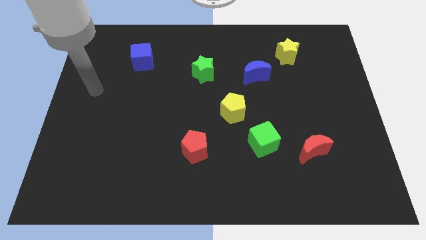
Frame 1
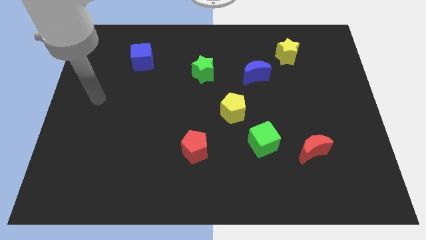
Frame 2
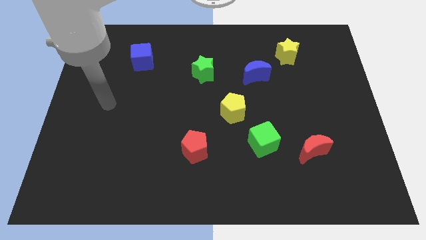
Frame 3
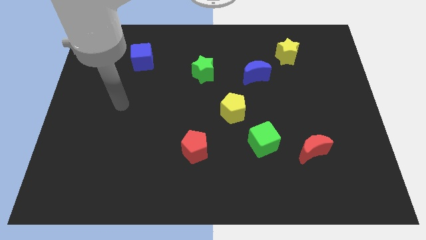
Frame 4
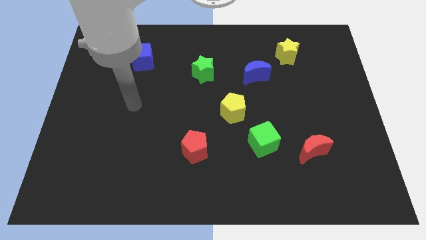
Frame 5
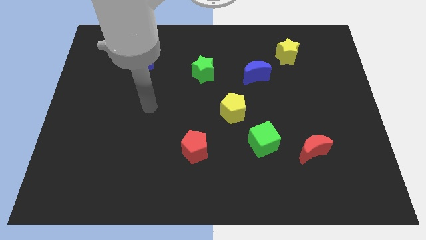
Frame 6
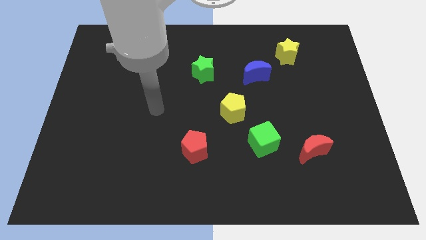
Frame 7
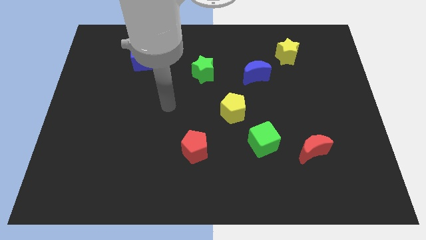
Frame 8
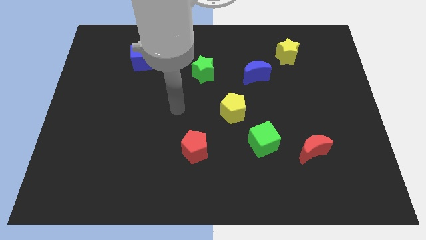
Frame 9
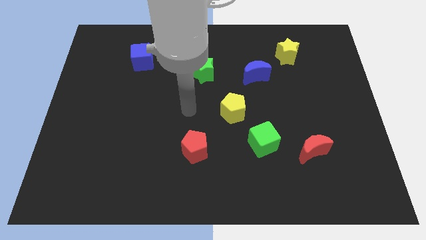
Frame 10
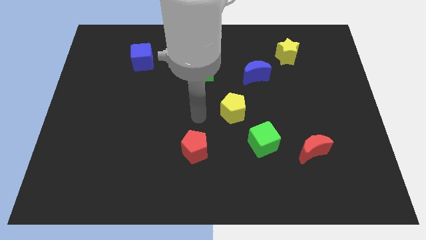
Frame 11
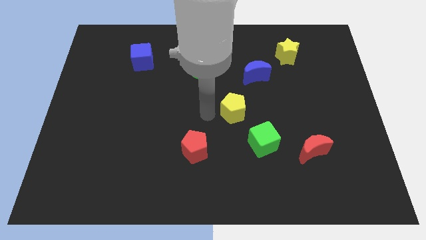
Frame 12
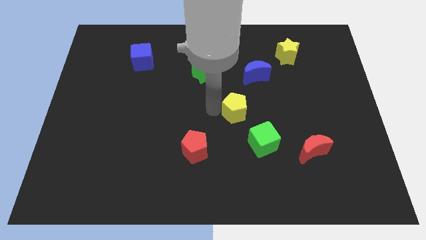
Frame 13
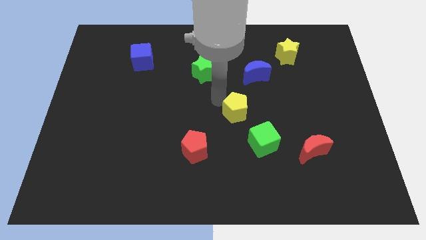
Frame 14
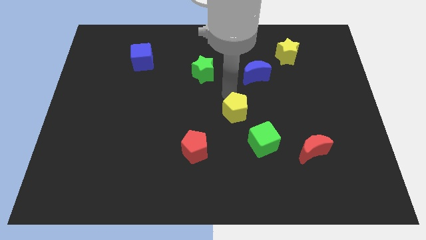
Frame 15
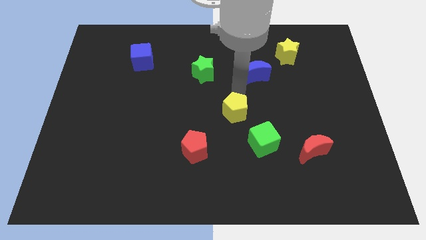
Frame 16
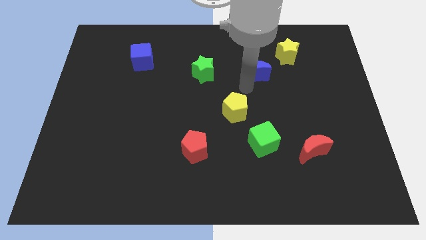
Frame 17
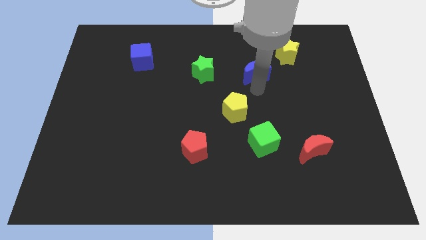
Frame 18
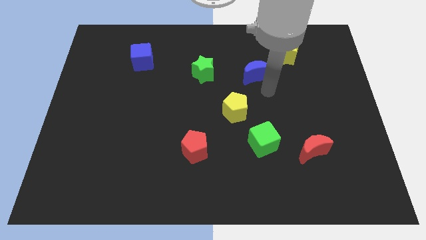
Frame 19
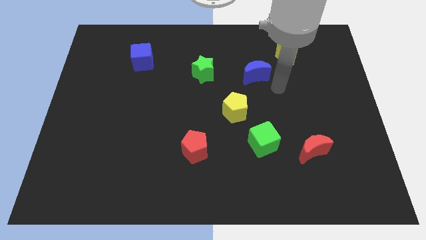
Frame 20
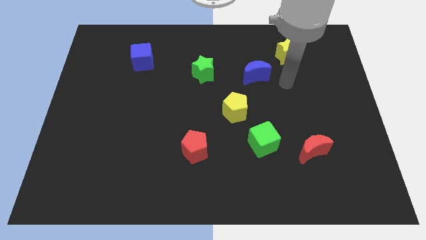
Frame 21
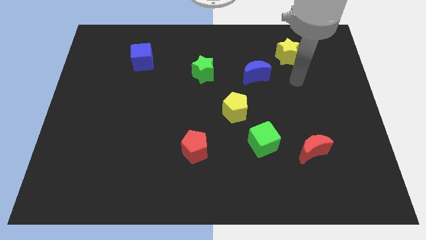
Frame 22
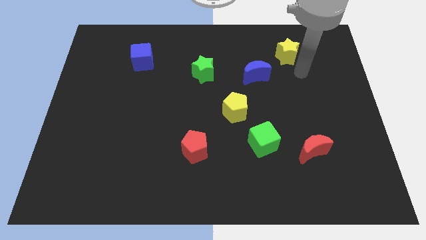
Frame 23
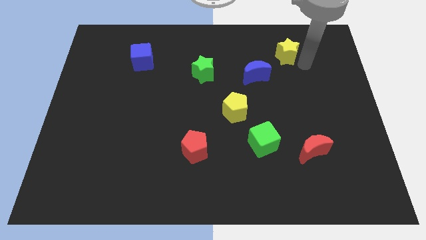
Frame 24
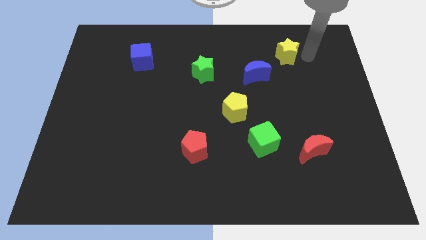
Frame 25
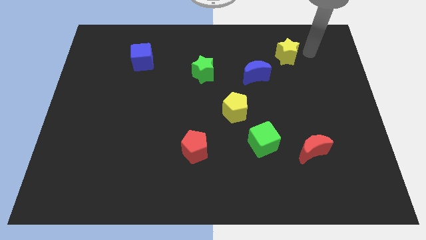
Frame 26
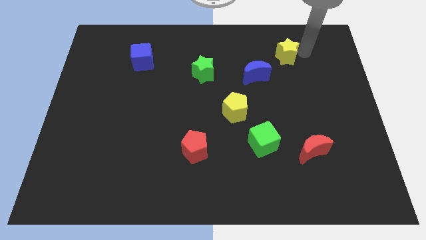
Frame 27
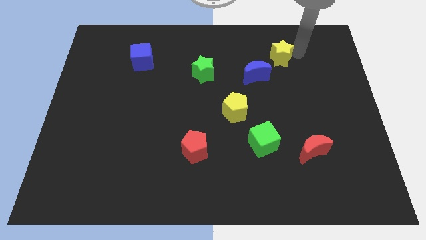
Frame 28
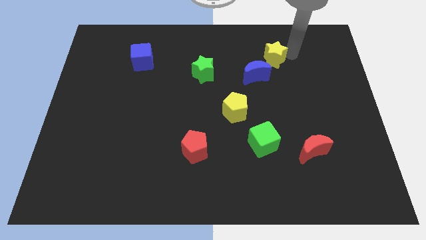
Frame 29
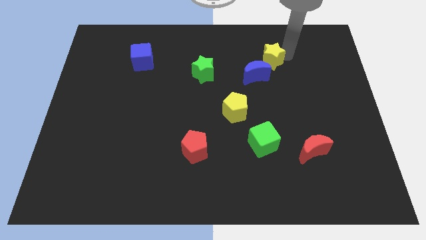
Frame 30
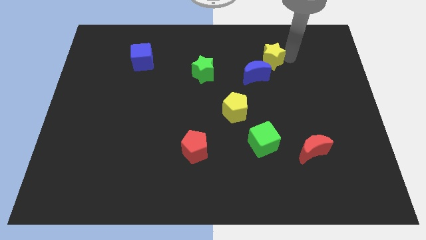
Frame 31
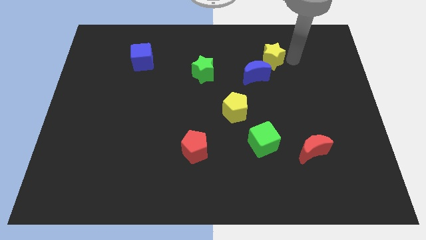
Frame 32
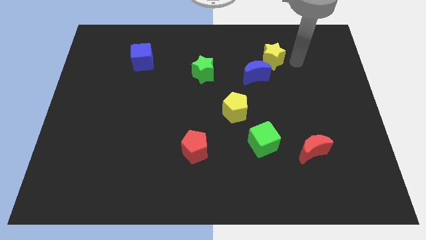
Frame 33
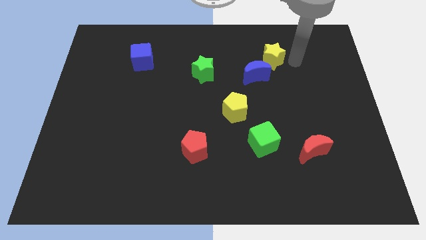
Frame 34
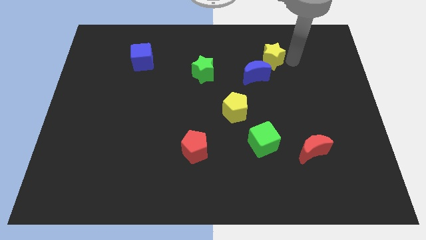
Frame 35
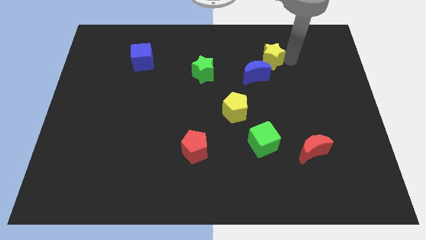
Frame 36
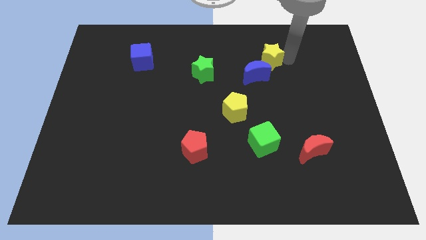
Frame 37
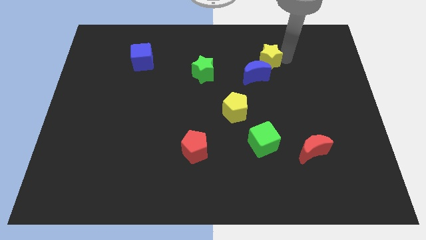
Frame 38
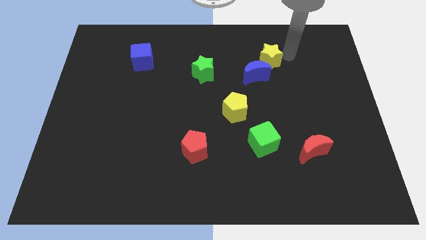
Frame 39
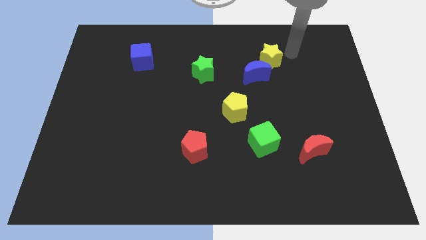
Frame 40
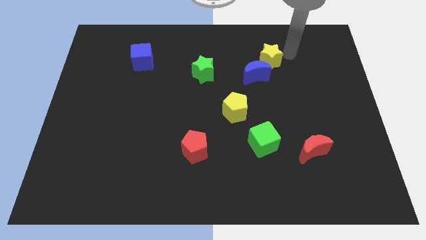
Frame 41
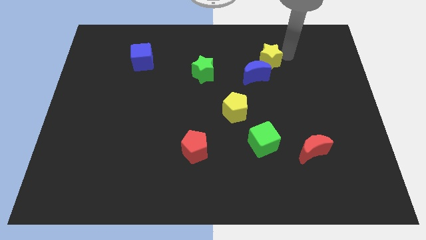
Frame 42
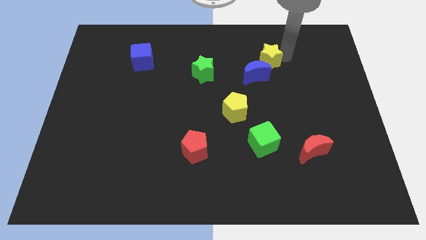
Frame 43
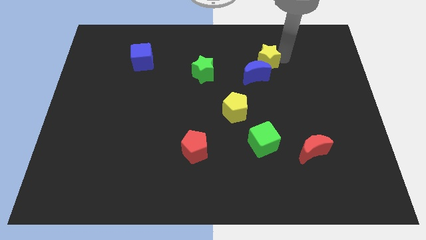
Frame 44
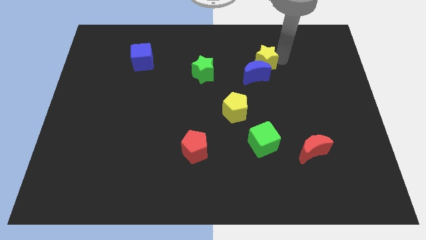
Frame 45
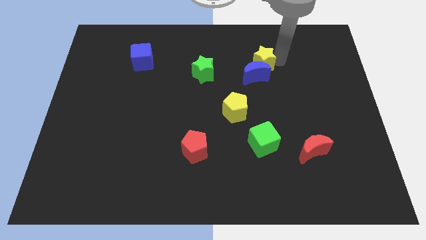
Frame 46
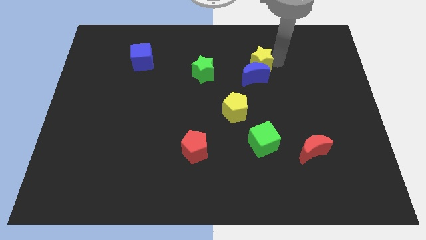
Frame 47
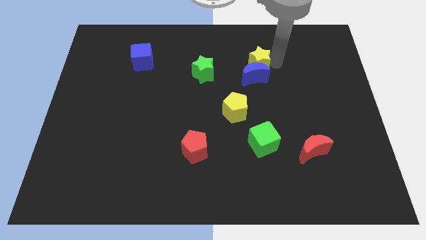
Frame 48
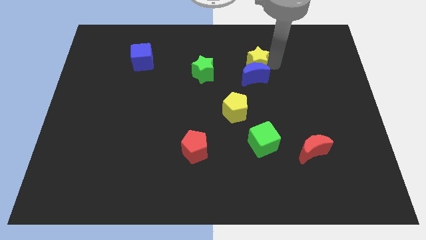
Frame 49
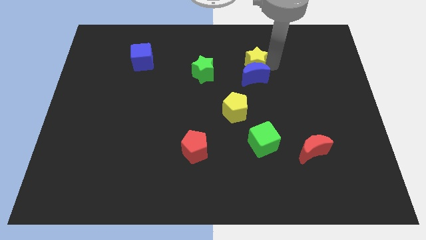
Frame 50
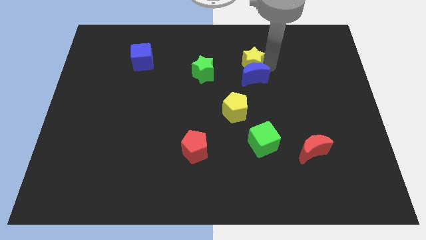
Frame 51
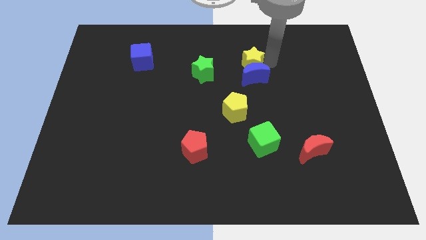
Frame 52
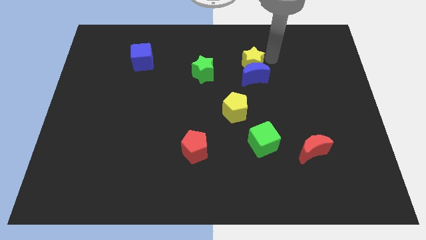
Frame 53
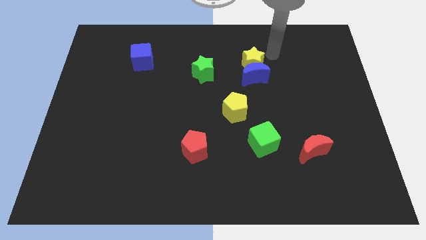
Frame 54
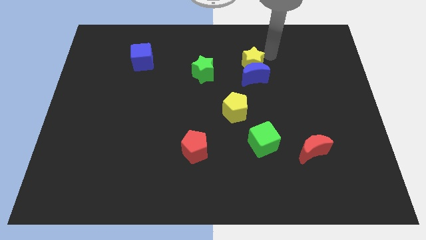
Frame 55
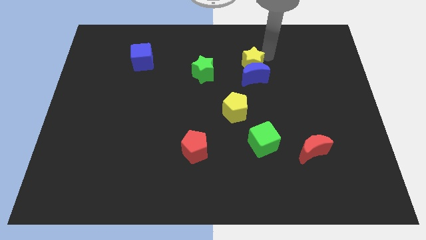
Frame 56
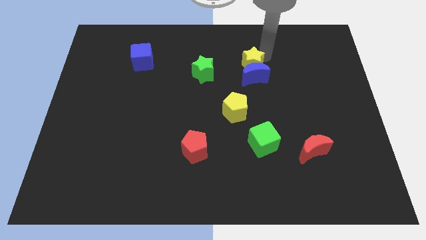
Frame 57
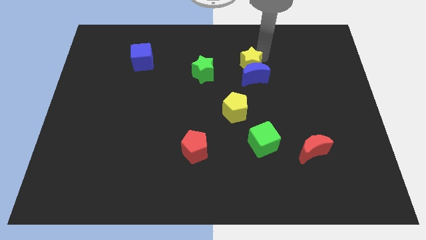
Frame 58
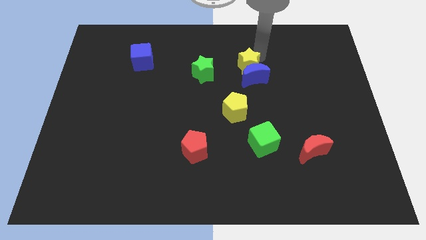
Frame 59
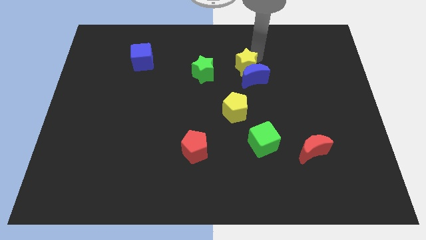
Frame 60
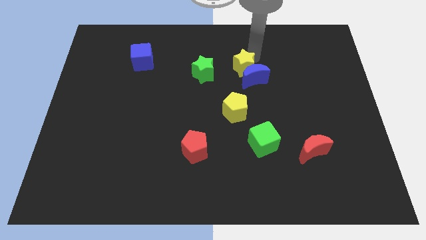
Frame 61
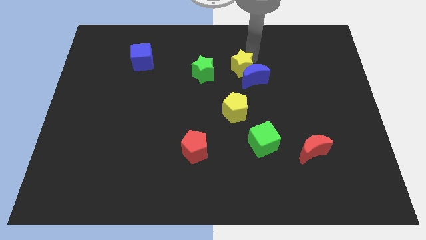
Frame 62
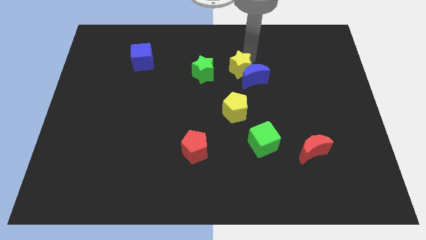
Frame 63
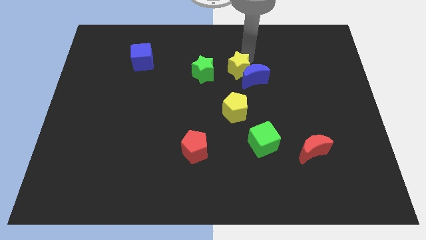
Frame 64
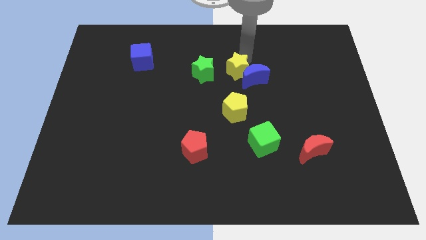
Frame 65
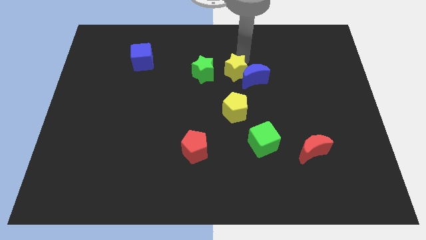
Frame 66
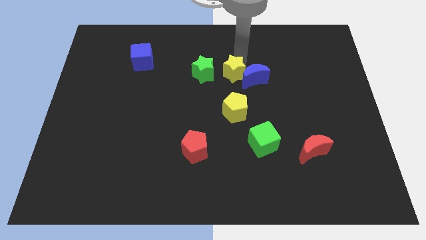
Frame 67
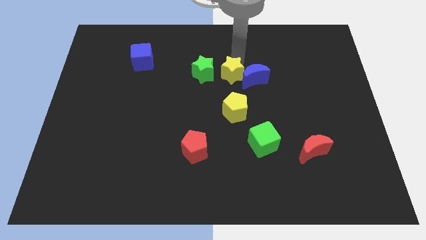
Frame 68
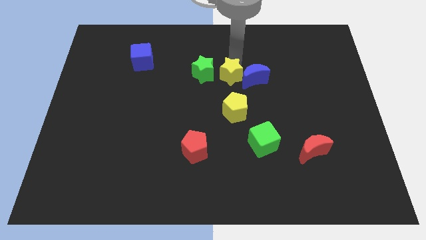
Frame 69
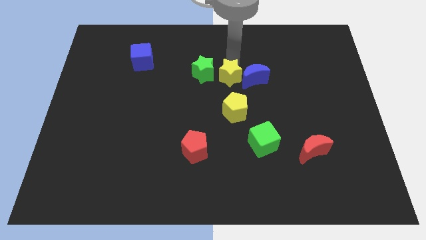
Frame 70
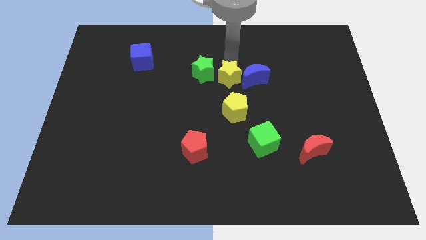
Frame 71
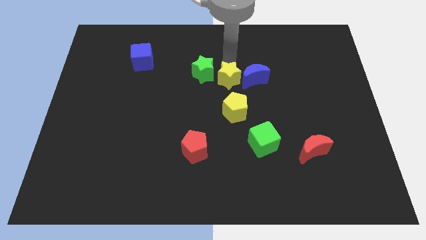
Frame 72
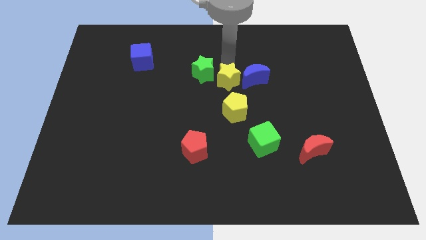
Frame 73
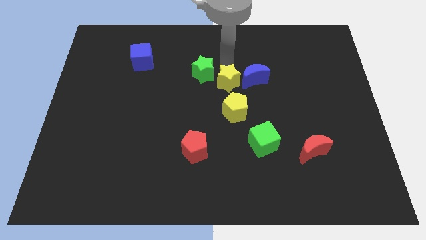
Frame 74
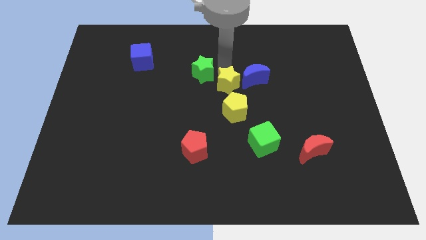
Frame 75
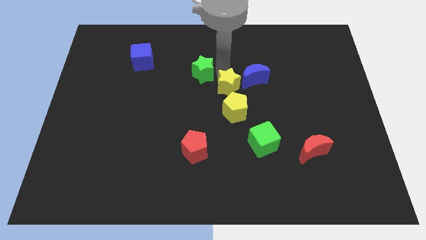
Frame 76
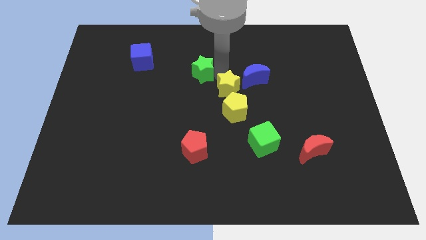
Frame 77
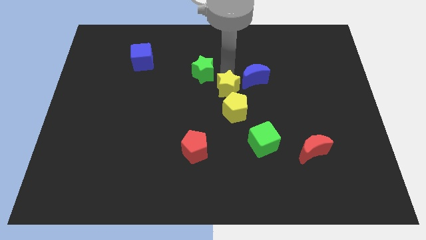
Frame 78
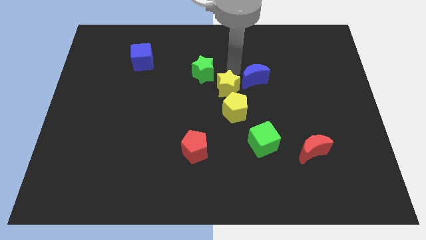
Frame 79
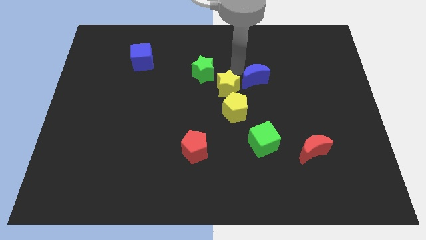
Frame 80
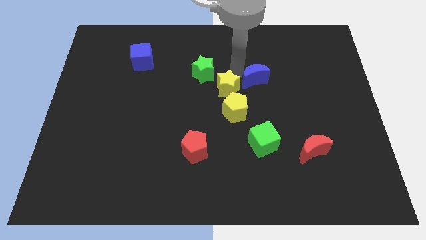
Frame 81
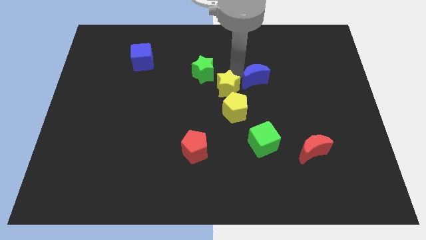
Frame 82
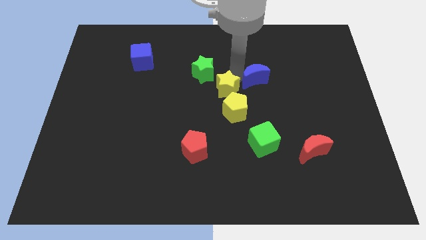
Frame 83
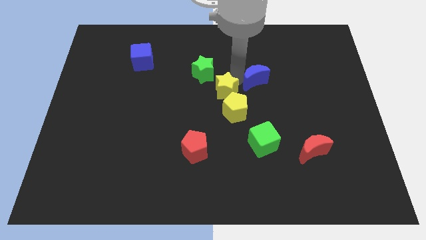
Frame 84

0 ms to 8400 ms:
slide the yellow star down and left
